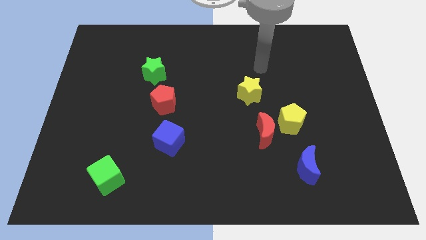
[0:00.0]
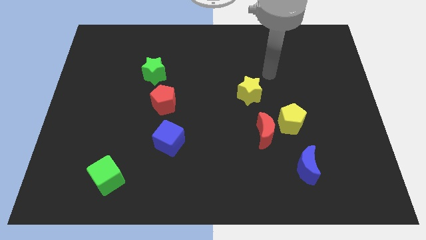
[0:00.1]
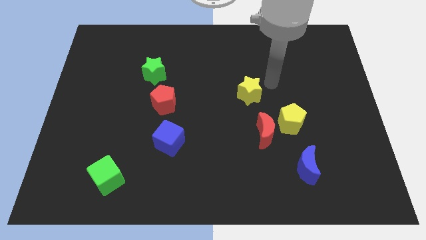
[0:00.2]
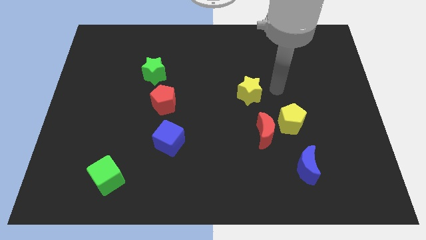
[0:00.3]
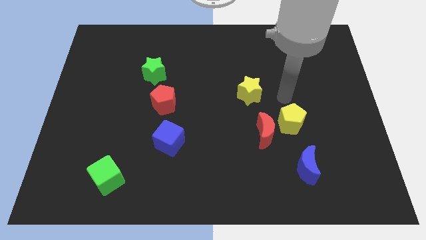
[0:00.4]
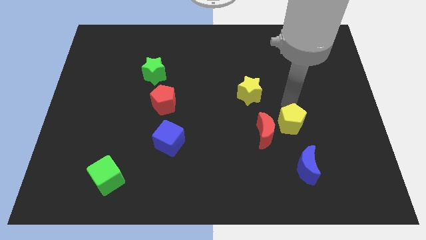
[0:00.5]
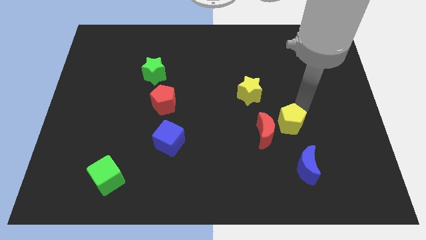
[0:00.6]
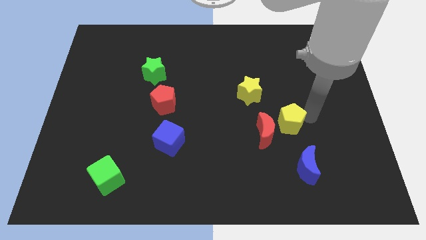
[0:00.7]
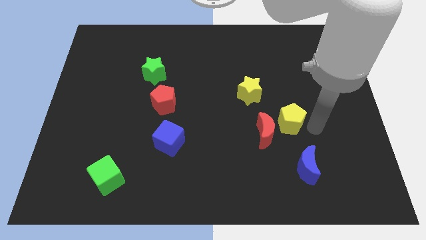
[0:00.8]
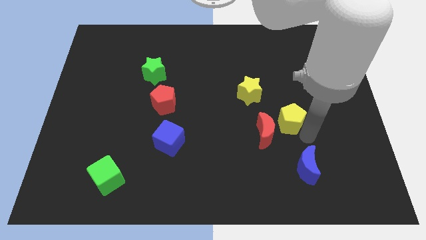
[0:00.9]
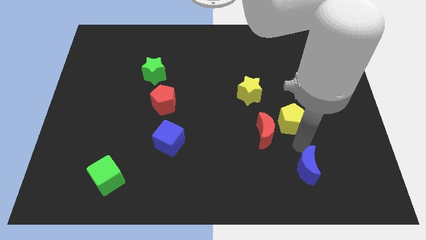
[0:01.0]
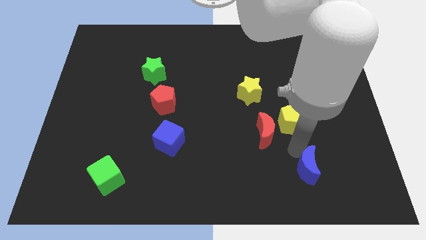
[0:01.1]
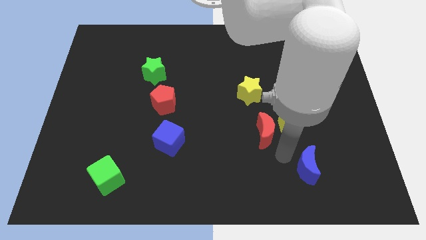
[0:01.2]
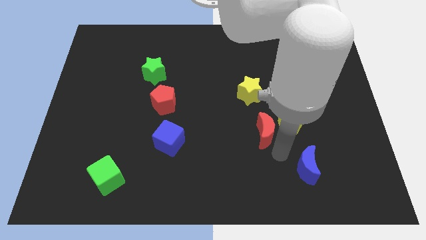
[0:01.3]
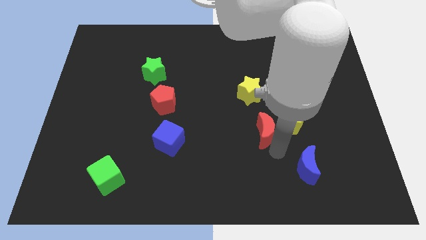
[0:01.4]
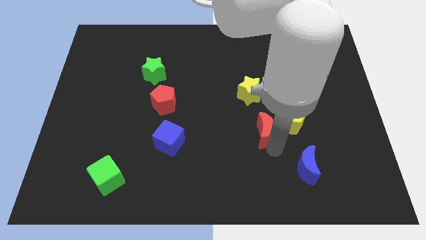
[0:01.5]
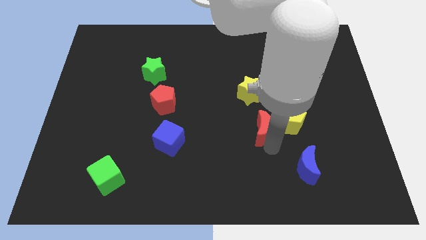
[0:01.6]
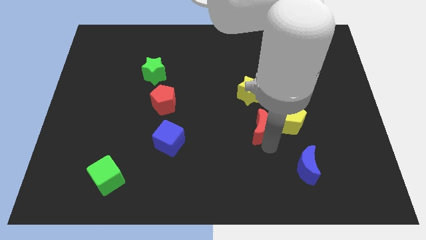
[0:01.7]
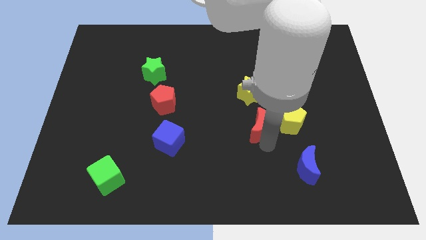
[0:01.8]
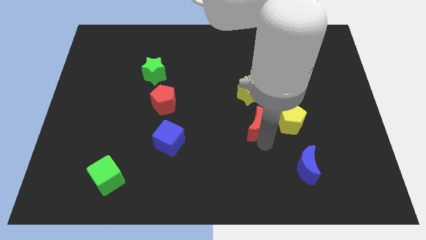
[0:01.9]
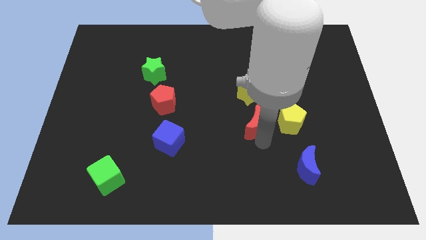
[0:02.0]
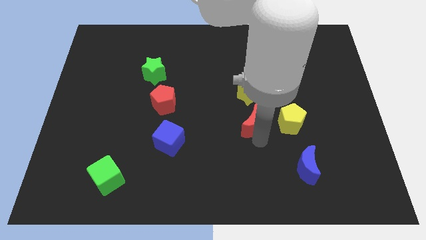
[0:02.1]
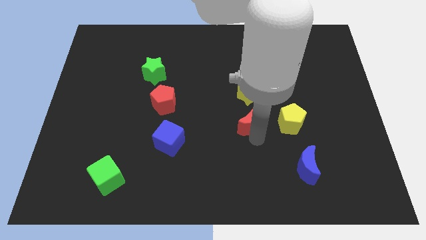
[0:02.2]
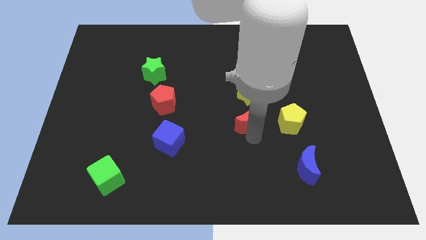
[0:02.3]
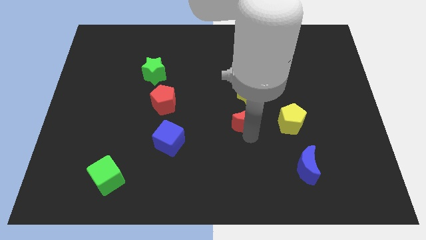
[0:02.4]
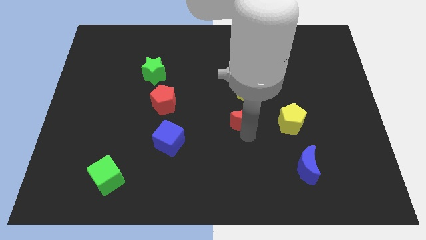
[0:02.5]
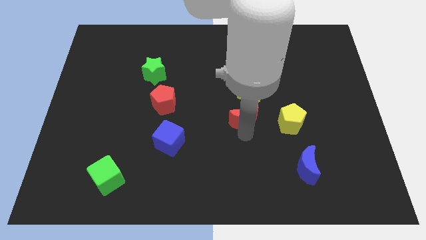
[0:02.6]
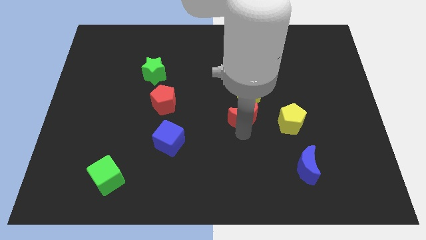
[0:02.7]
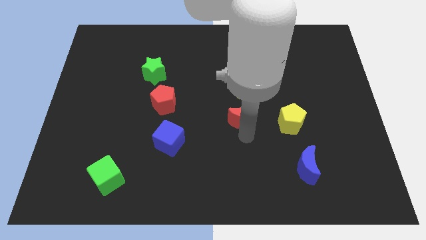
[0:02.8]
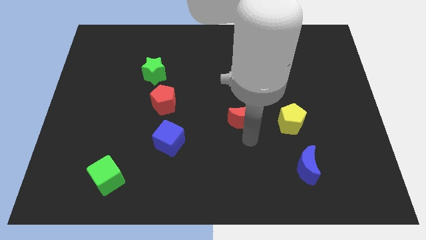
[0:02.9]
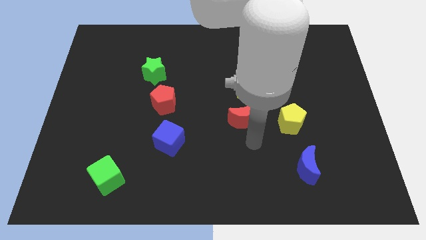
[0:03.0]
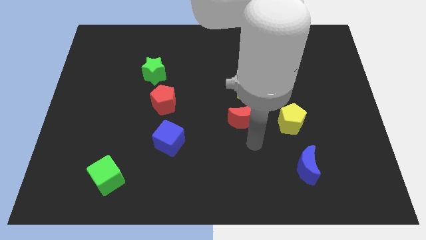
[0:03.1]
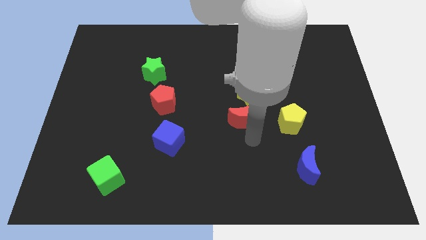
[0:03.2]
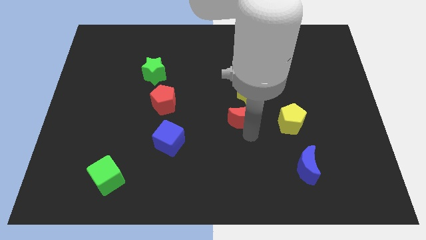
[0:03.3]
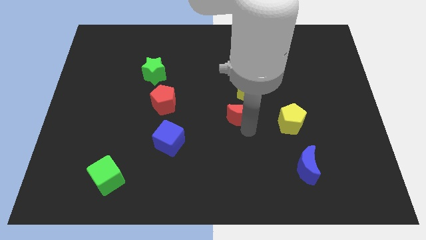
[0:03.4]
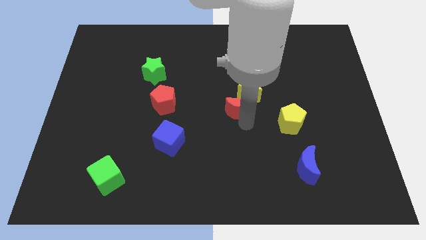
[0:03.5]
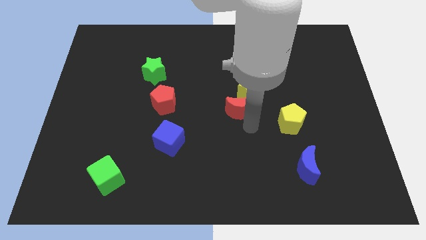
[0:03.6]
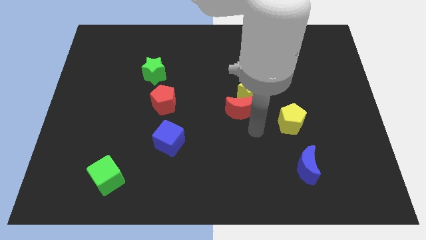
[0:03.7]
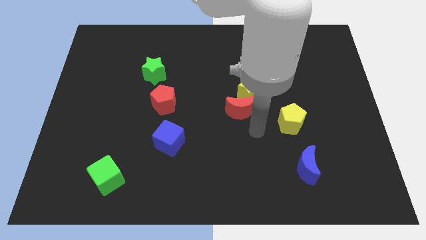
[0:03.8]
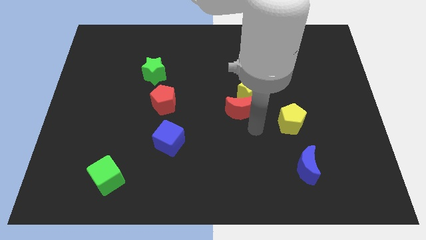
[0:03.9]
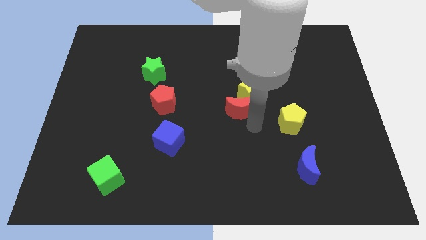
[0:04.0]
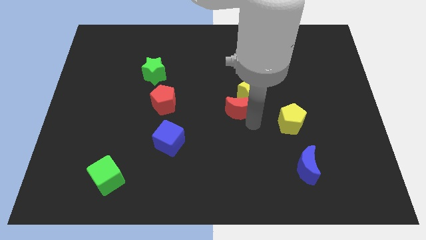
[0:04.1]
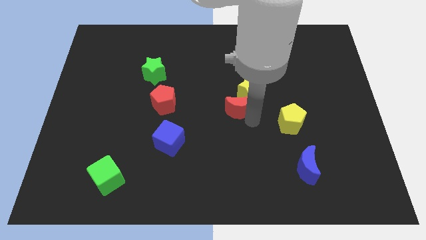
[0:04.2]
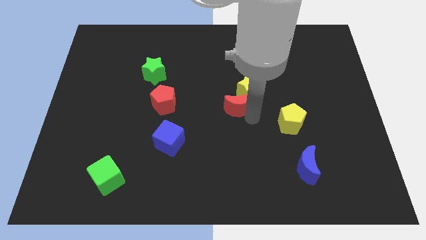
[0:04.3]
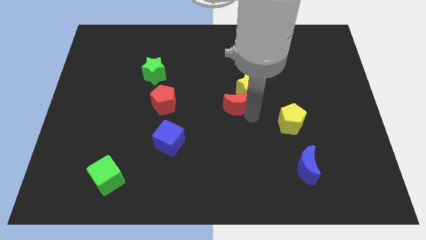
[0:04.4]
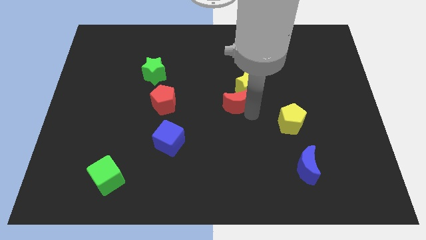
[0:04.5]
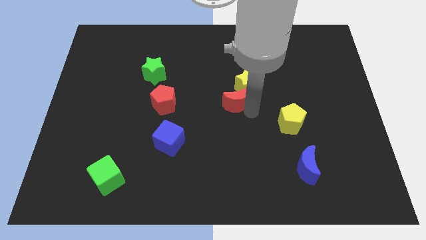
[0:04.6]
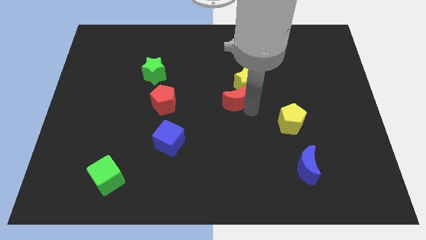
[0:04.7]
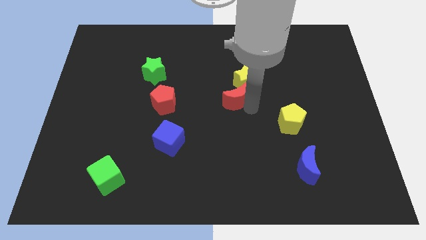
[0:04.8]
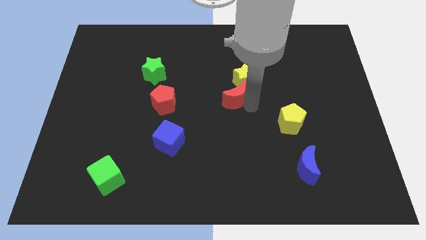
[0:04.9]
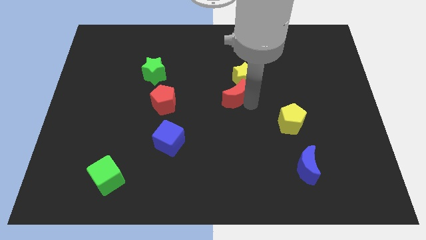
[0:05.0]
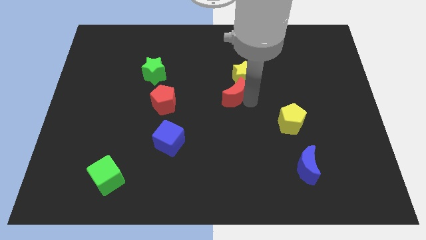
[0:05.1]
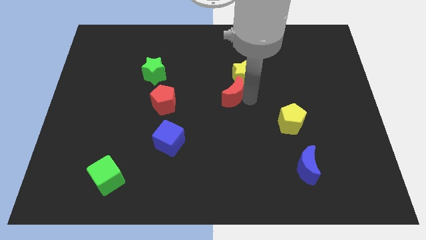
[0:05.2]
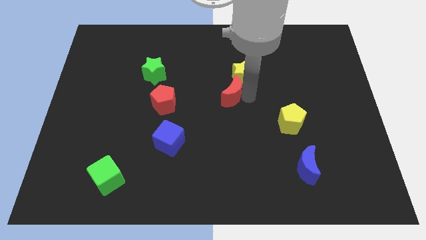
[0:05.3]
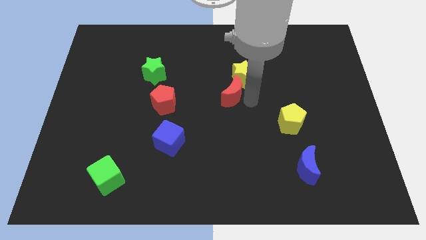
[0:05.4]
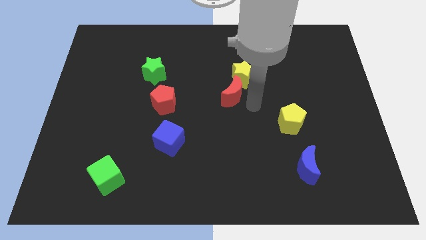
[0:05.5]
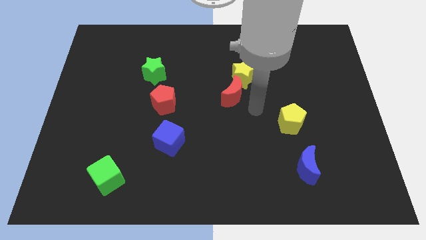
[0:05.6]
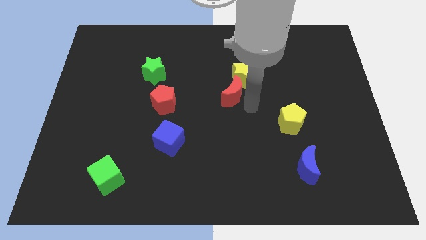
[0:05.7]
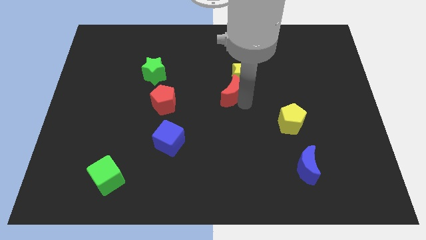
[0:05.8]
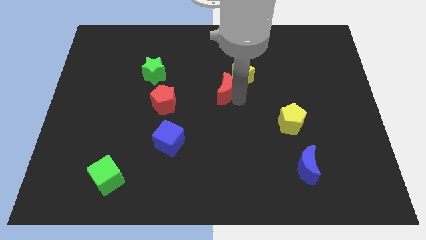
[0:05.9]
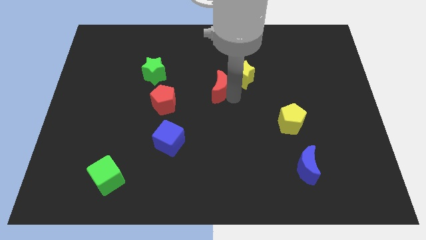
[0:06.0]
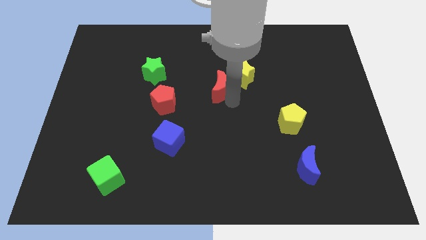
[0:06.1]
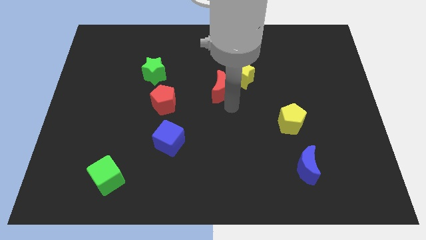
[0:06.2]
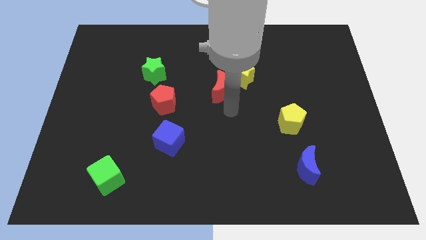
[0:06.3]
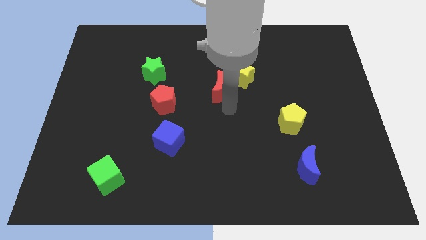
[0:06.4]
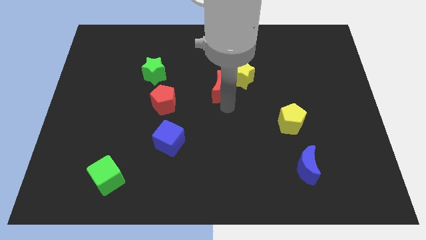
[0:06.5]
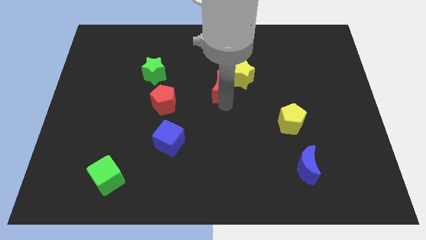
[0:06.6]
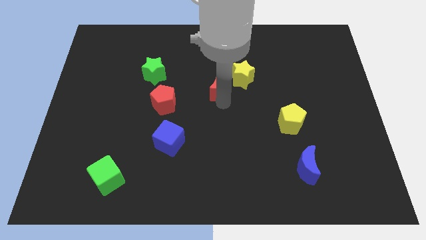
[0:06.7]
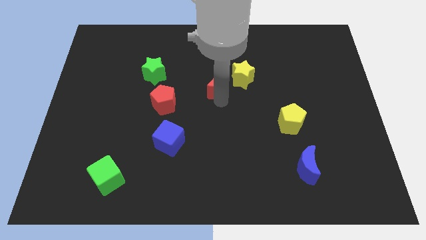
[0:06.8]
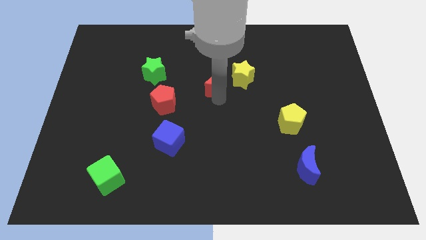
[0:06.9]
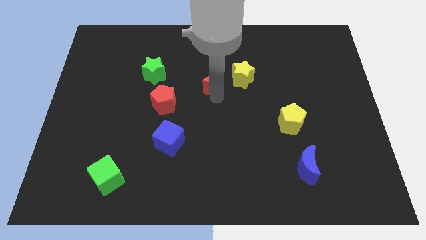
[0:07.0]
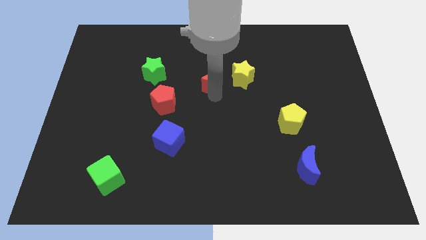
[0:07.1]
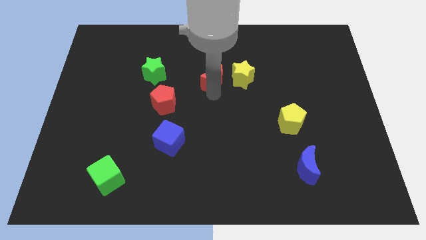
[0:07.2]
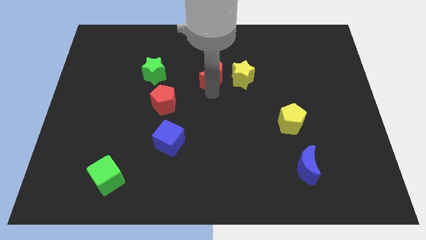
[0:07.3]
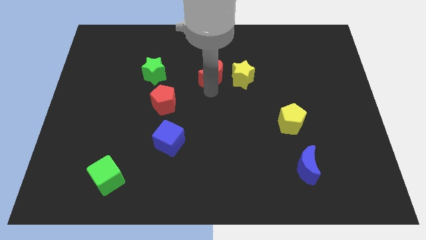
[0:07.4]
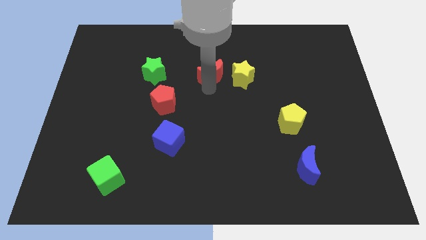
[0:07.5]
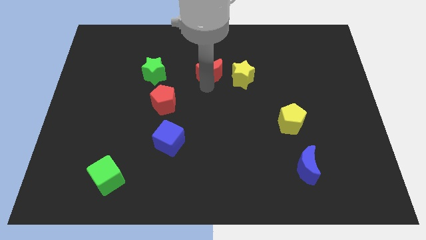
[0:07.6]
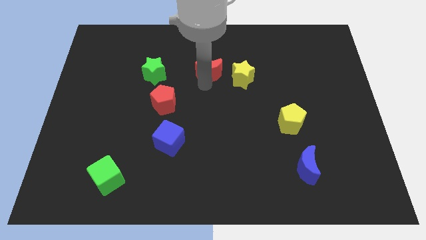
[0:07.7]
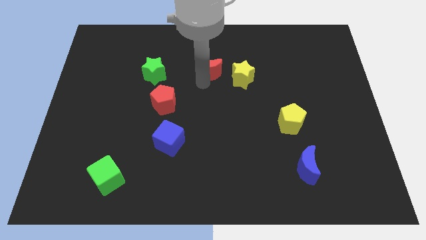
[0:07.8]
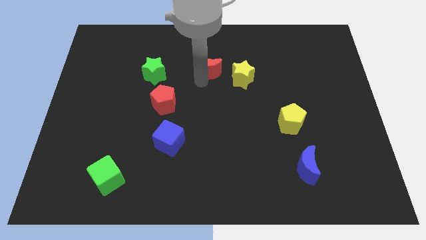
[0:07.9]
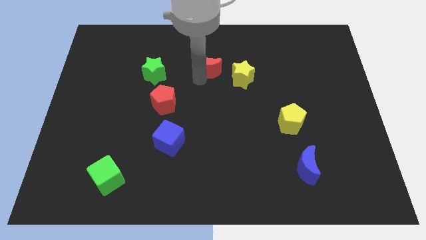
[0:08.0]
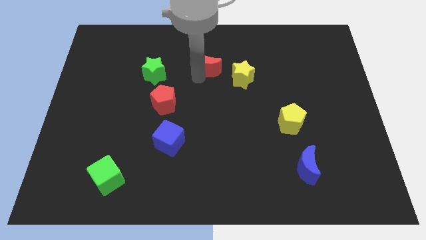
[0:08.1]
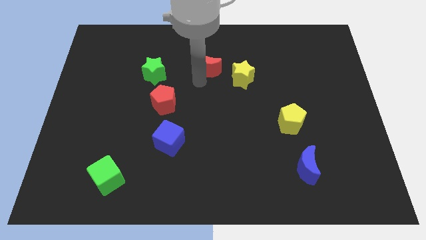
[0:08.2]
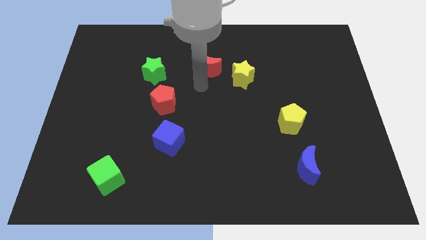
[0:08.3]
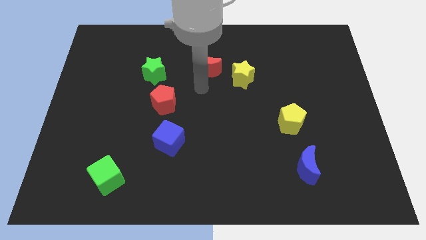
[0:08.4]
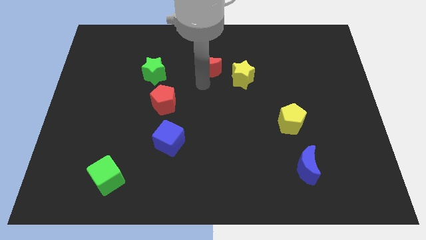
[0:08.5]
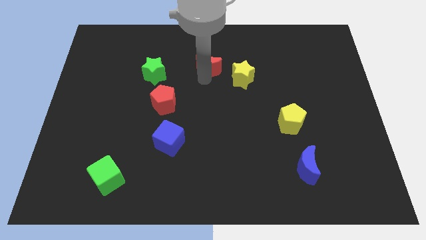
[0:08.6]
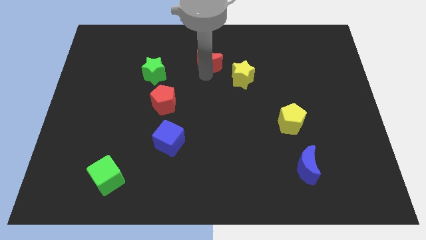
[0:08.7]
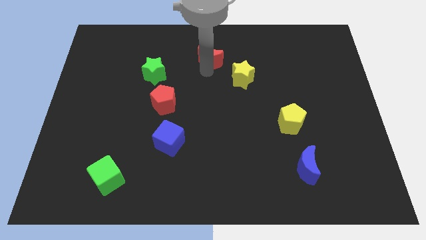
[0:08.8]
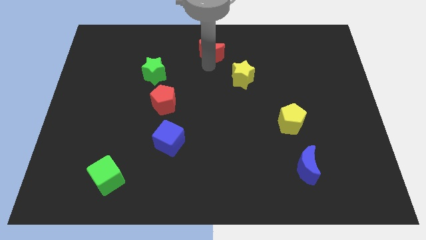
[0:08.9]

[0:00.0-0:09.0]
slide the red moon to the towards your base
